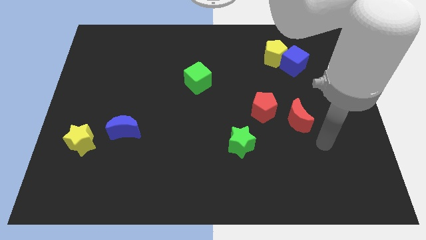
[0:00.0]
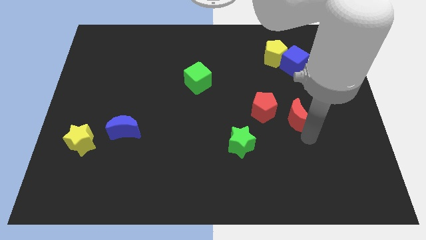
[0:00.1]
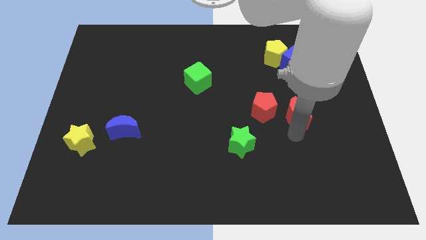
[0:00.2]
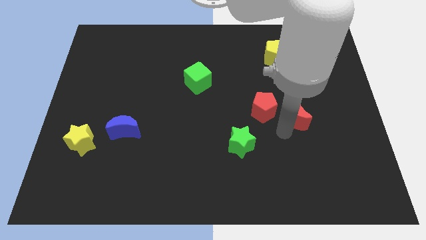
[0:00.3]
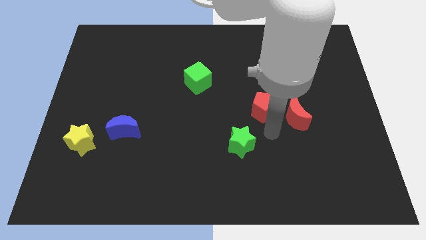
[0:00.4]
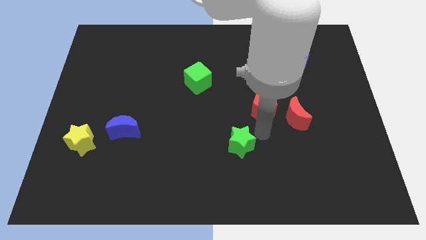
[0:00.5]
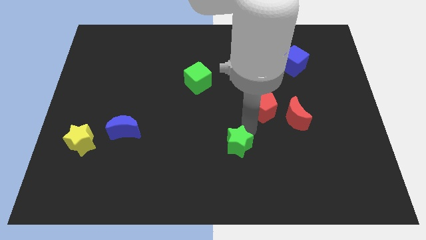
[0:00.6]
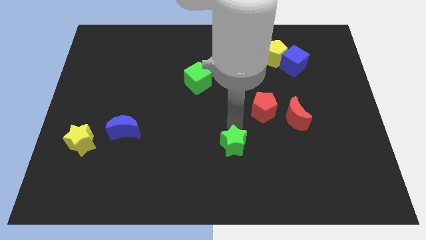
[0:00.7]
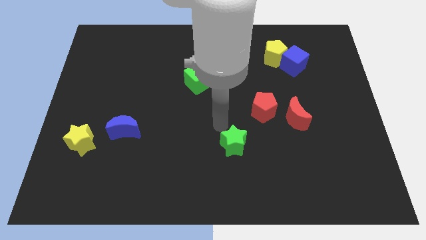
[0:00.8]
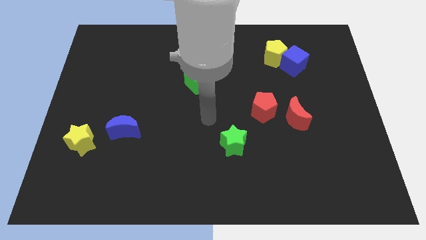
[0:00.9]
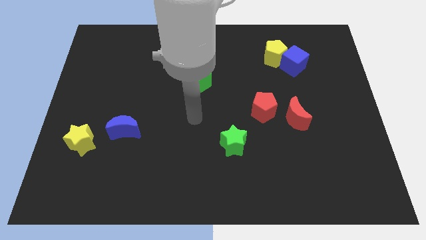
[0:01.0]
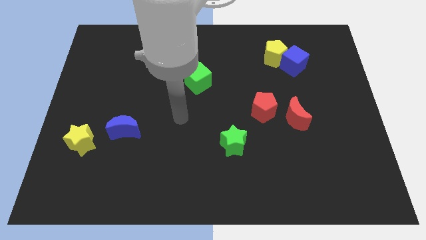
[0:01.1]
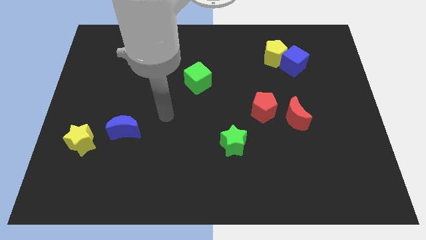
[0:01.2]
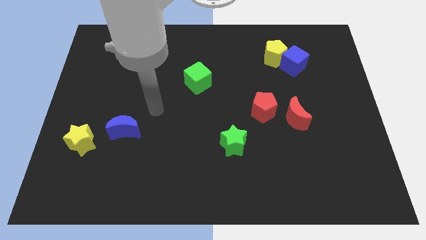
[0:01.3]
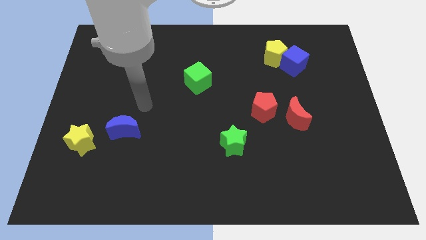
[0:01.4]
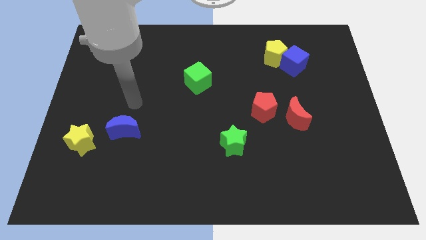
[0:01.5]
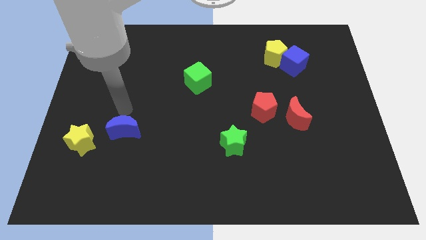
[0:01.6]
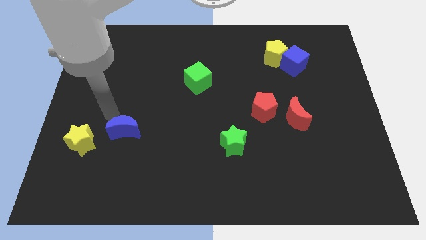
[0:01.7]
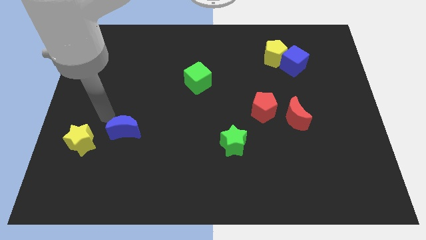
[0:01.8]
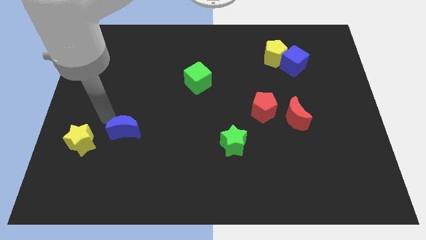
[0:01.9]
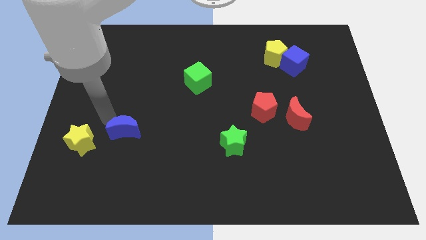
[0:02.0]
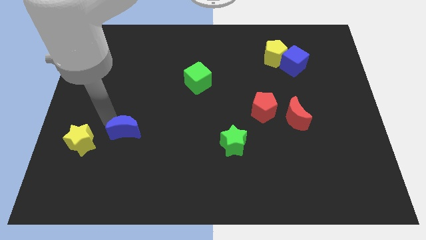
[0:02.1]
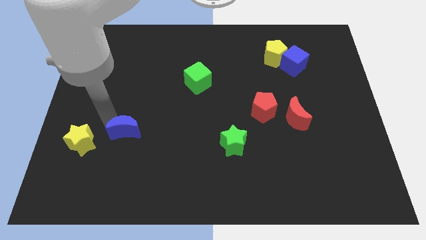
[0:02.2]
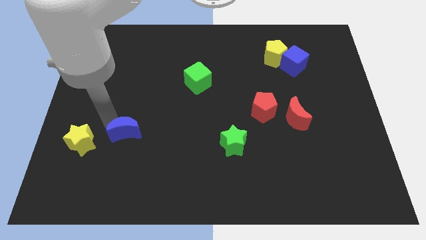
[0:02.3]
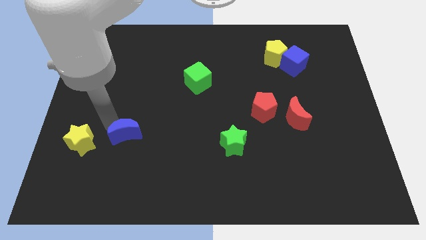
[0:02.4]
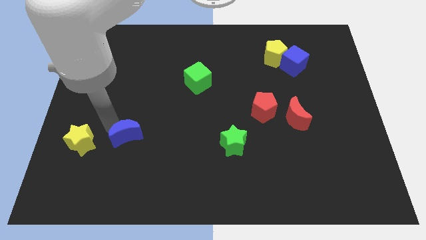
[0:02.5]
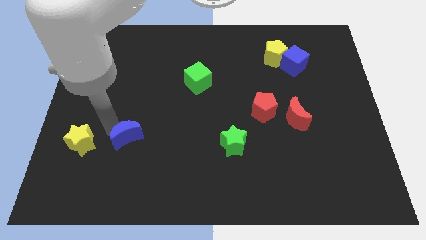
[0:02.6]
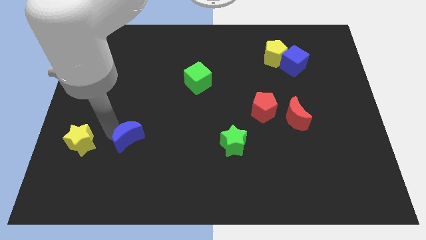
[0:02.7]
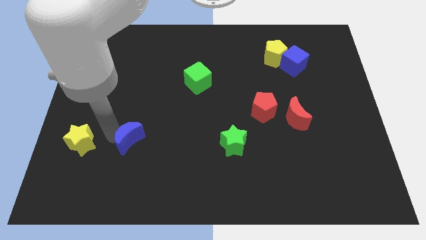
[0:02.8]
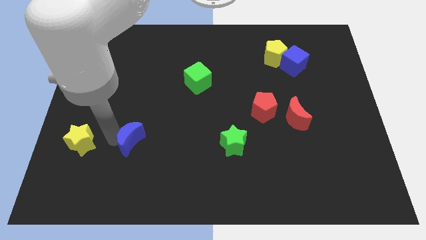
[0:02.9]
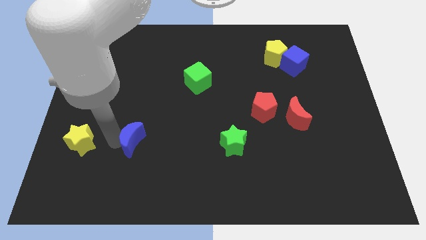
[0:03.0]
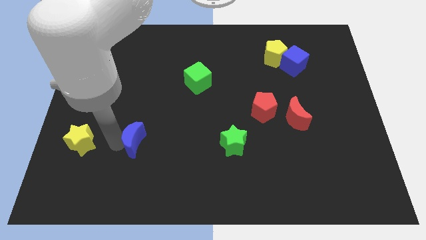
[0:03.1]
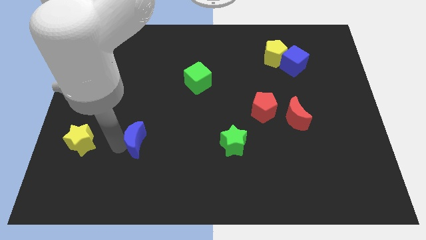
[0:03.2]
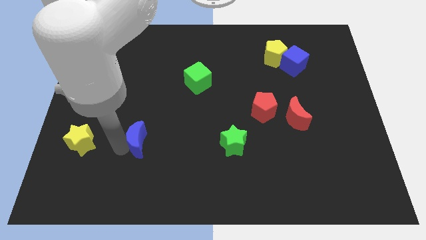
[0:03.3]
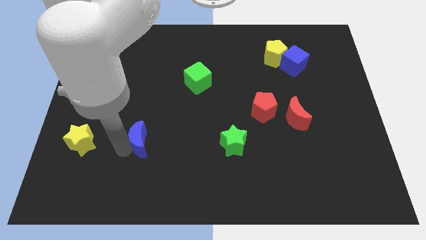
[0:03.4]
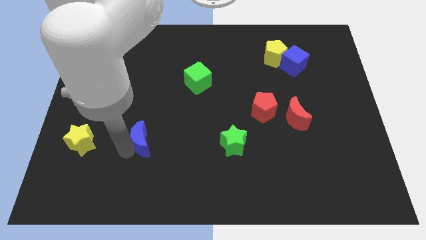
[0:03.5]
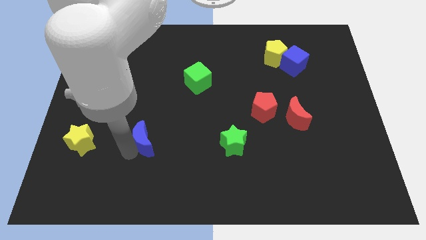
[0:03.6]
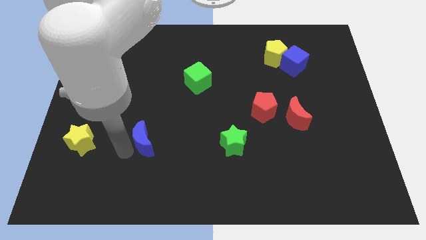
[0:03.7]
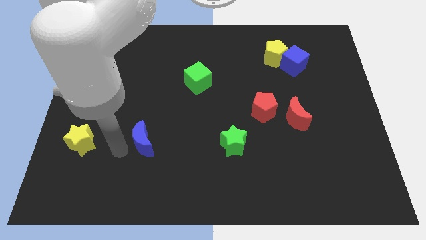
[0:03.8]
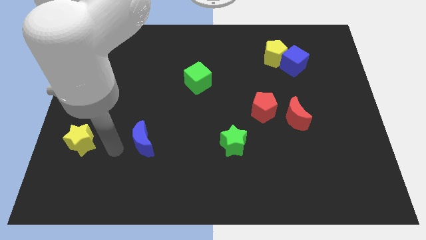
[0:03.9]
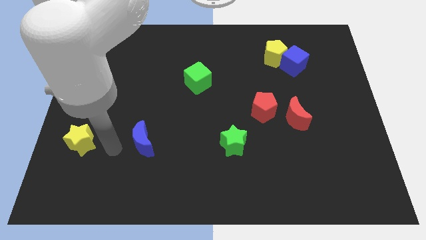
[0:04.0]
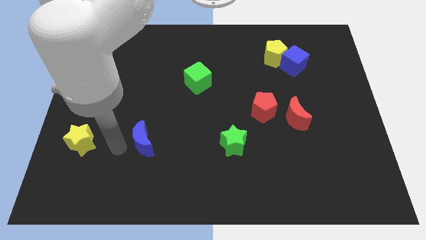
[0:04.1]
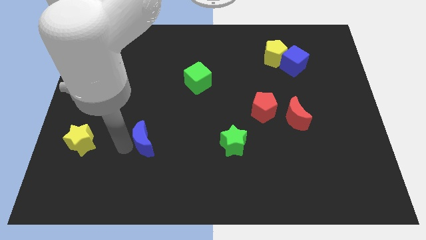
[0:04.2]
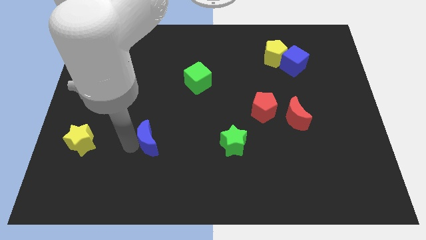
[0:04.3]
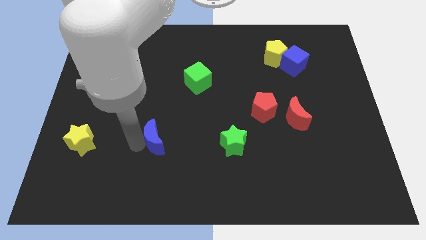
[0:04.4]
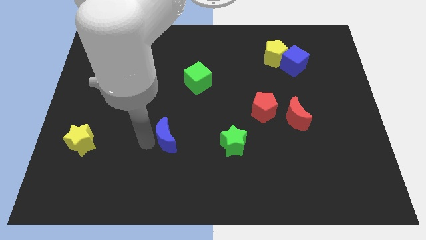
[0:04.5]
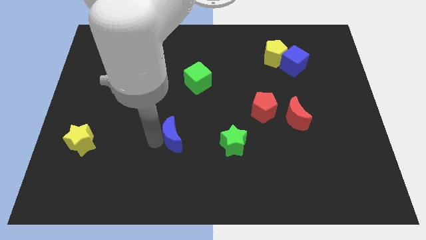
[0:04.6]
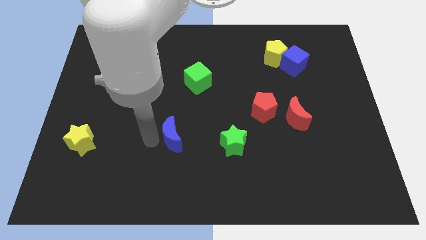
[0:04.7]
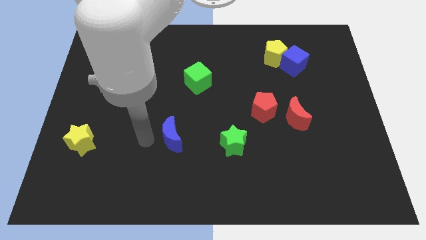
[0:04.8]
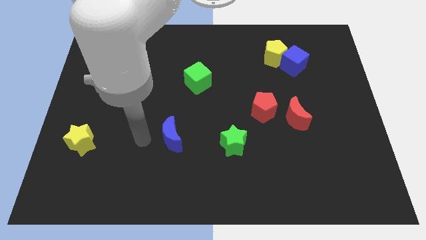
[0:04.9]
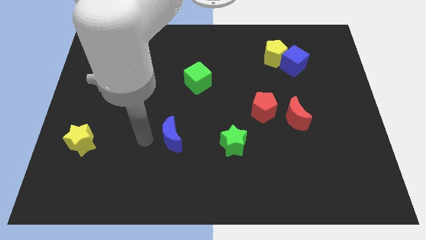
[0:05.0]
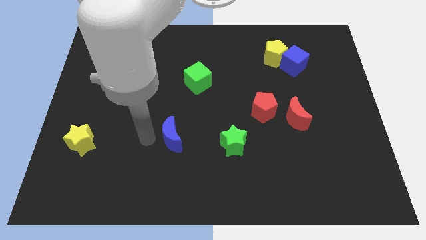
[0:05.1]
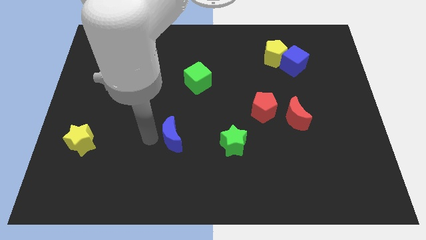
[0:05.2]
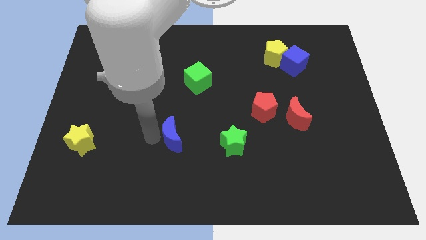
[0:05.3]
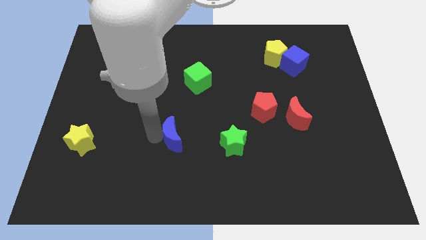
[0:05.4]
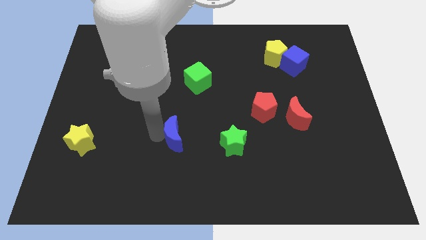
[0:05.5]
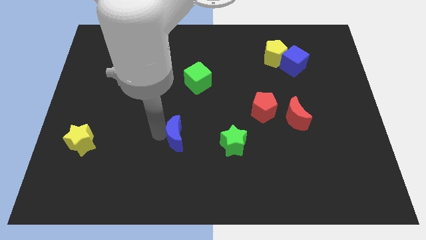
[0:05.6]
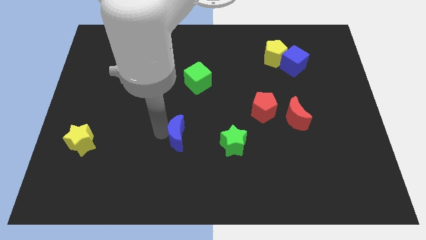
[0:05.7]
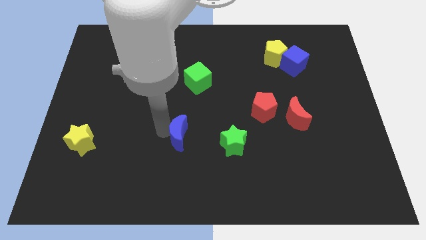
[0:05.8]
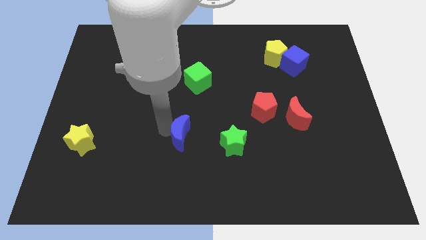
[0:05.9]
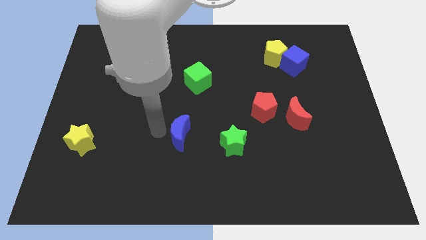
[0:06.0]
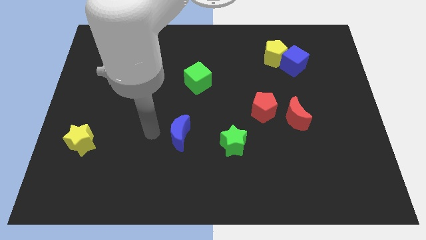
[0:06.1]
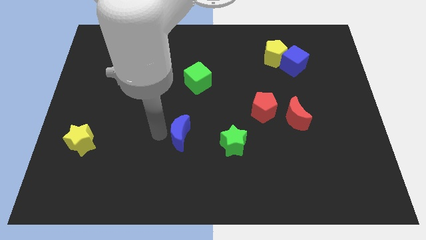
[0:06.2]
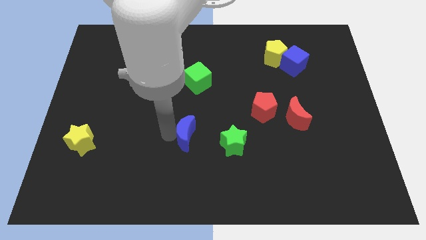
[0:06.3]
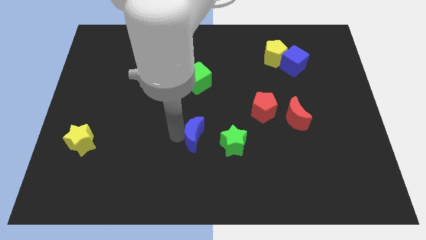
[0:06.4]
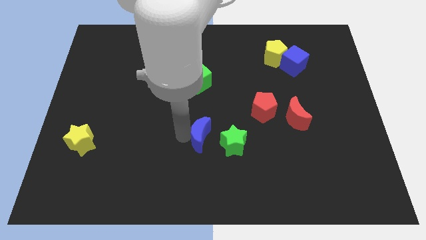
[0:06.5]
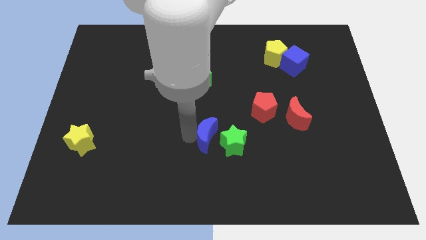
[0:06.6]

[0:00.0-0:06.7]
put the blue moon to the green star

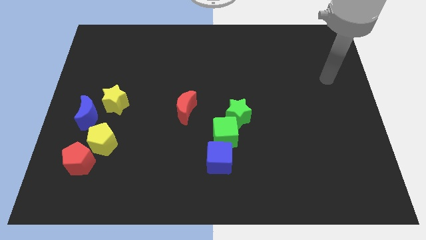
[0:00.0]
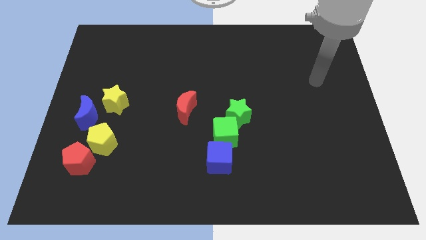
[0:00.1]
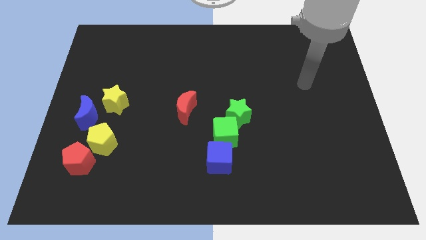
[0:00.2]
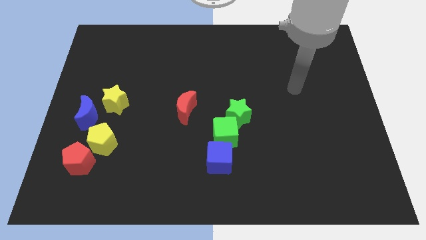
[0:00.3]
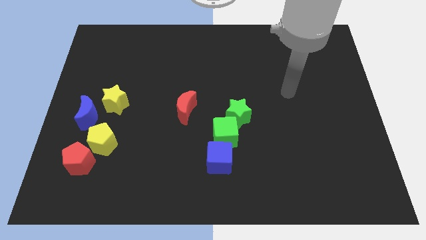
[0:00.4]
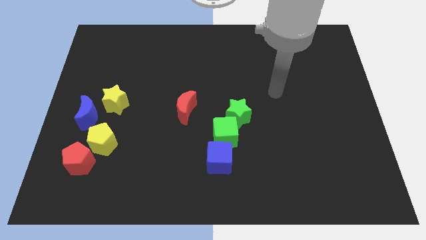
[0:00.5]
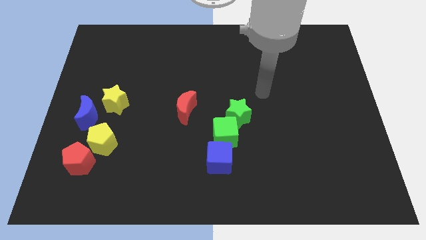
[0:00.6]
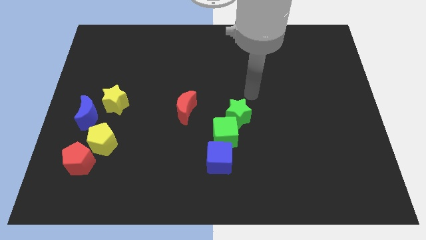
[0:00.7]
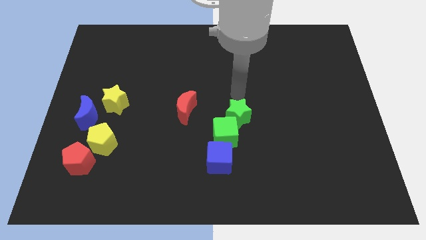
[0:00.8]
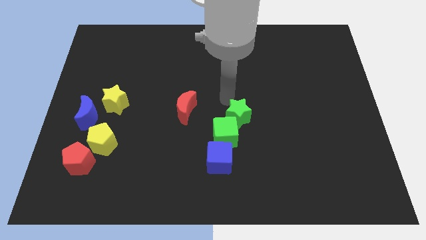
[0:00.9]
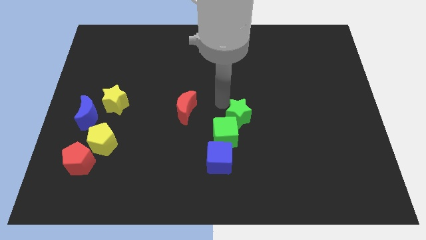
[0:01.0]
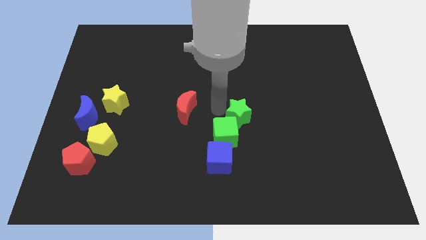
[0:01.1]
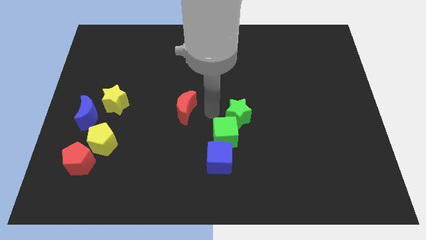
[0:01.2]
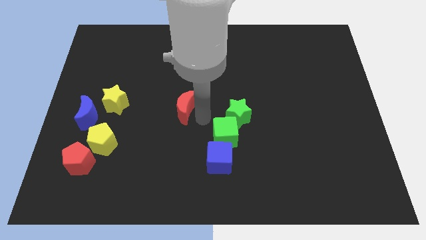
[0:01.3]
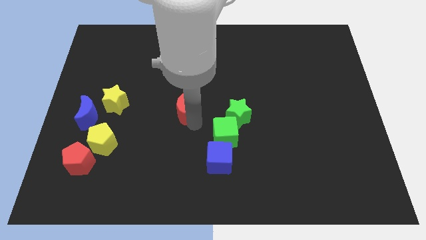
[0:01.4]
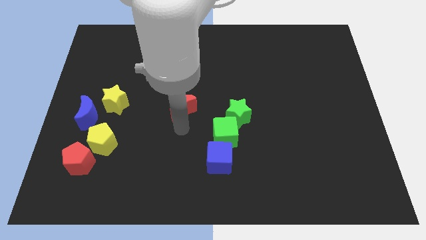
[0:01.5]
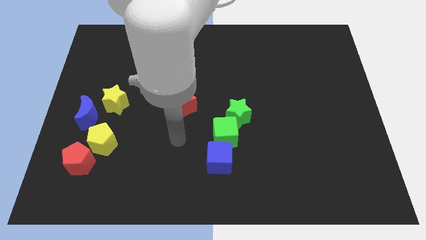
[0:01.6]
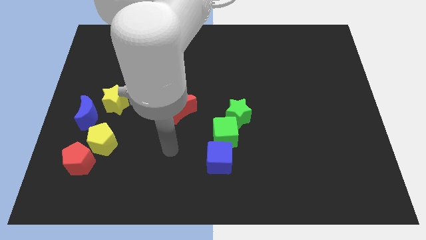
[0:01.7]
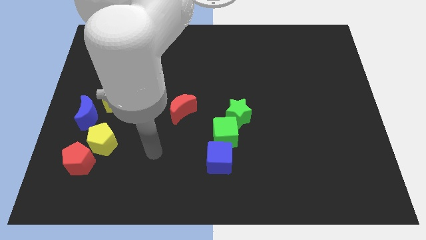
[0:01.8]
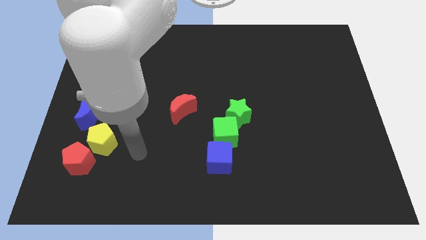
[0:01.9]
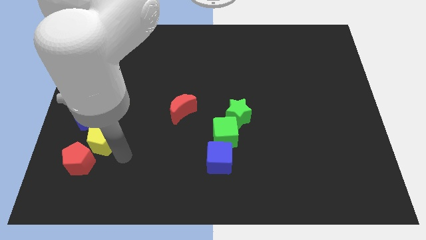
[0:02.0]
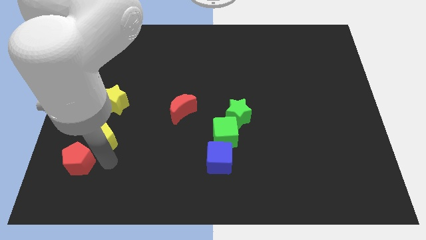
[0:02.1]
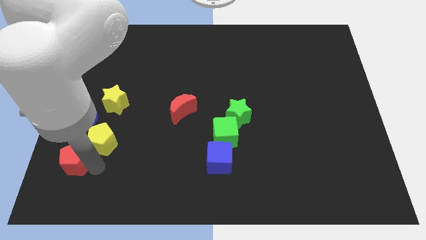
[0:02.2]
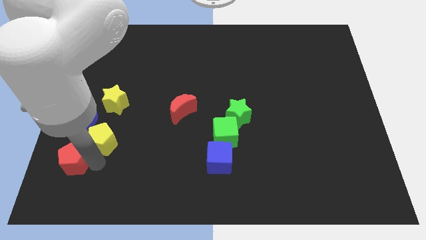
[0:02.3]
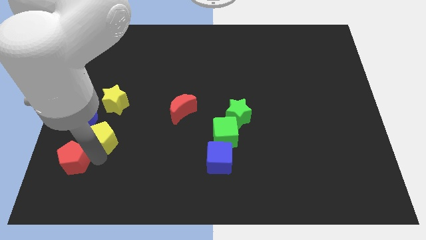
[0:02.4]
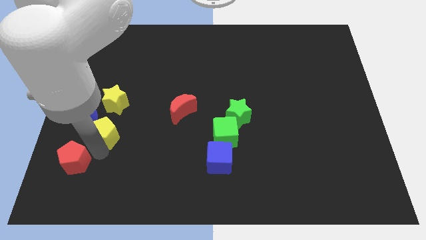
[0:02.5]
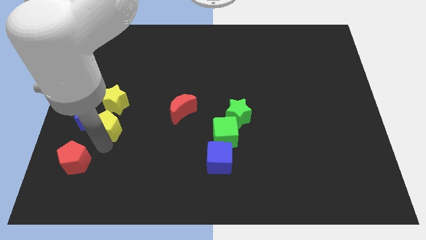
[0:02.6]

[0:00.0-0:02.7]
put the yellow pentagon close to the blue moon
